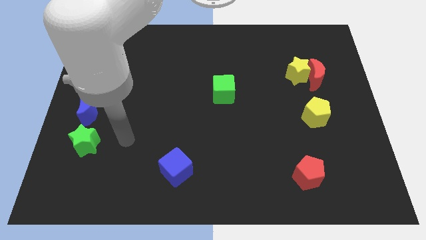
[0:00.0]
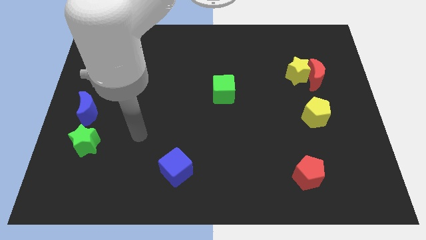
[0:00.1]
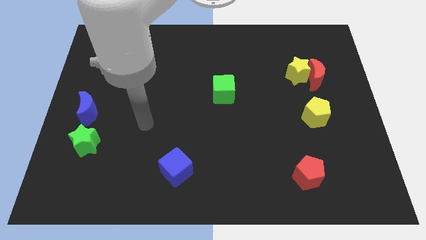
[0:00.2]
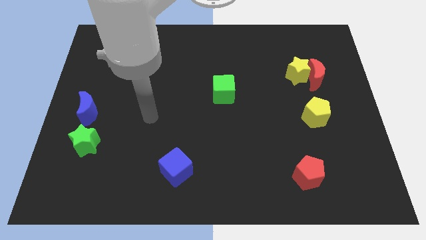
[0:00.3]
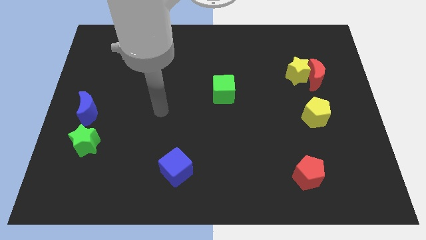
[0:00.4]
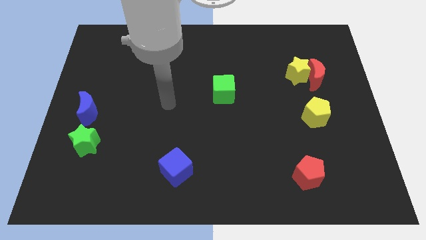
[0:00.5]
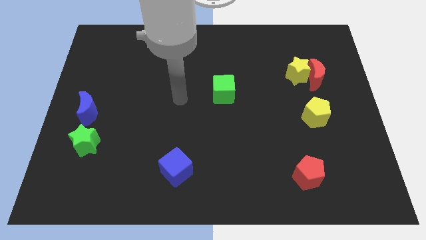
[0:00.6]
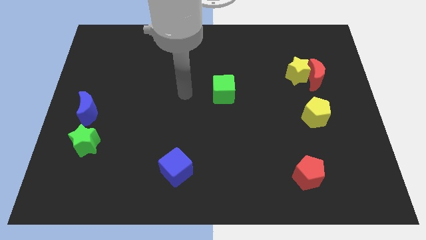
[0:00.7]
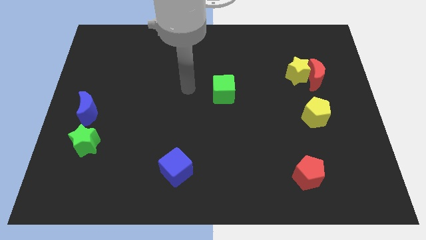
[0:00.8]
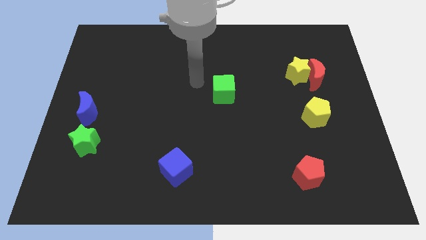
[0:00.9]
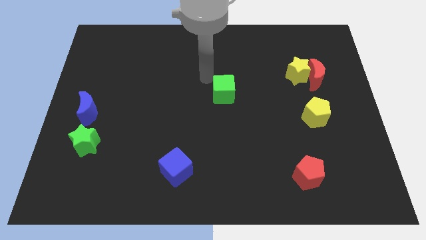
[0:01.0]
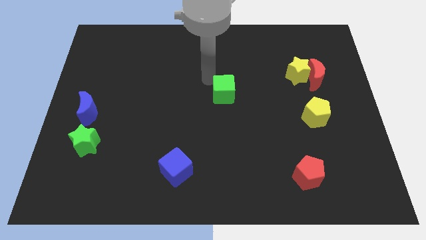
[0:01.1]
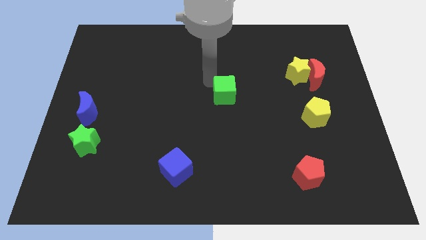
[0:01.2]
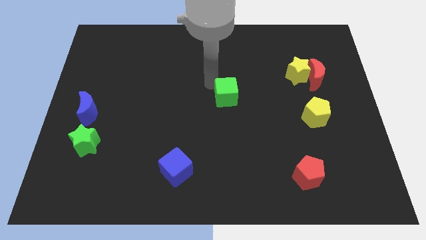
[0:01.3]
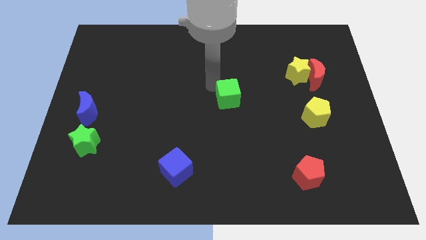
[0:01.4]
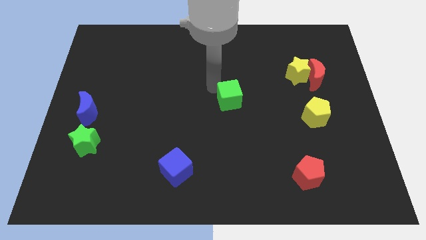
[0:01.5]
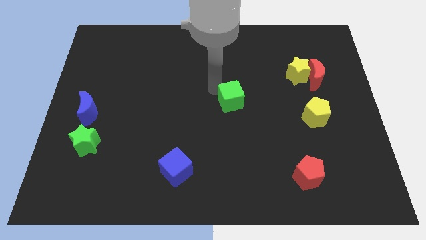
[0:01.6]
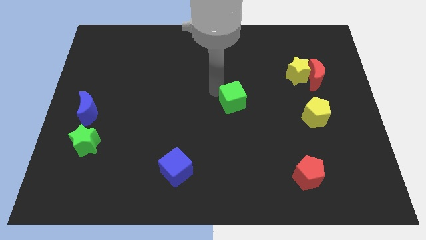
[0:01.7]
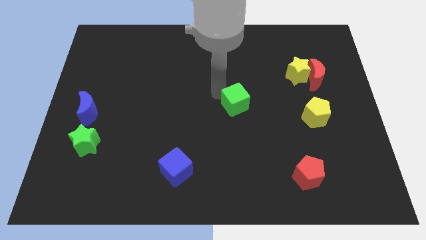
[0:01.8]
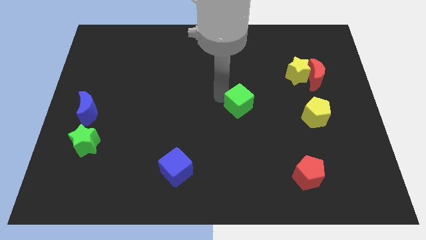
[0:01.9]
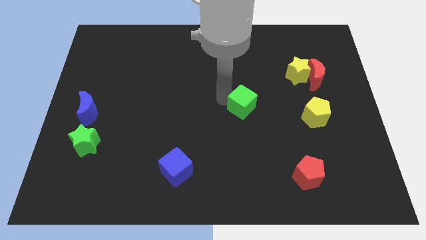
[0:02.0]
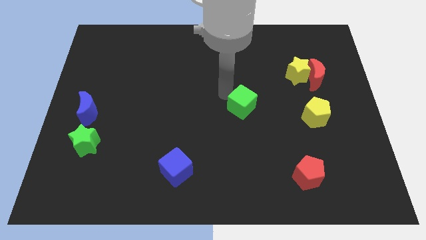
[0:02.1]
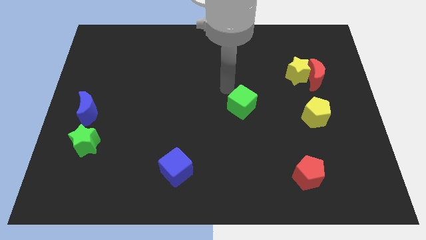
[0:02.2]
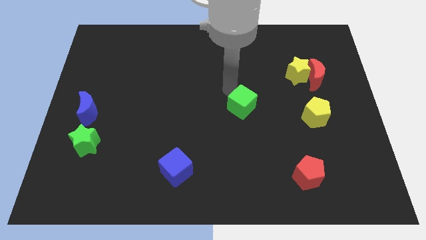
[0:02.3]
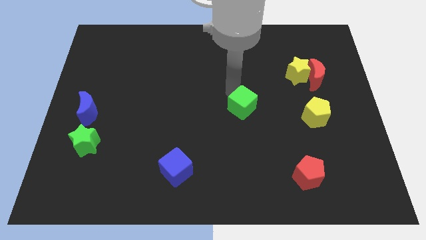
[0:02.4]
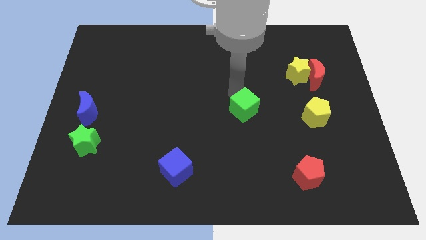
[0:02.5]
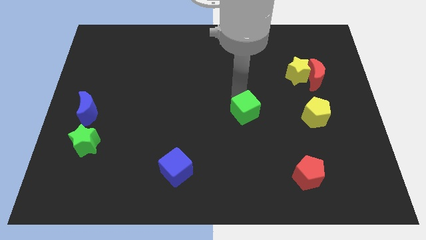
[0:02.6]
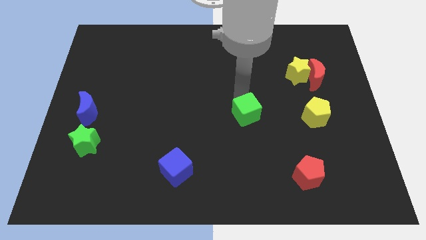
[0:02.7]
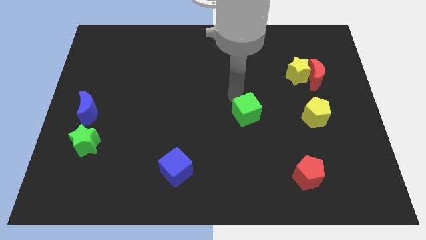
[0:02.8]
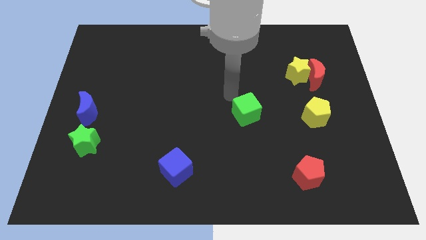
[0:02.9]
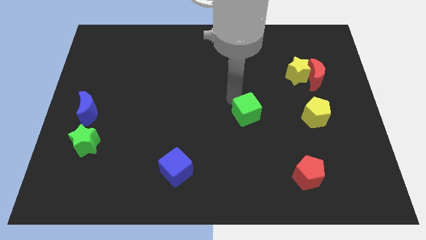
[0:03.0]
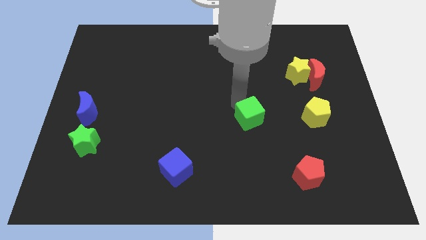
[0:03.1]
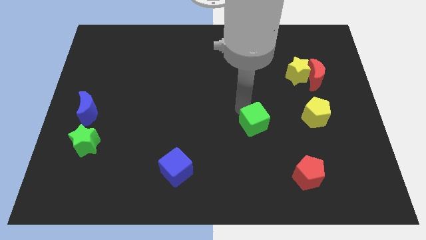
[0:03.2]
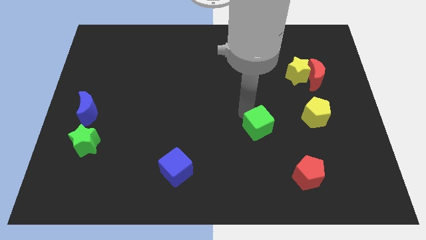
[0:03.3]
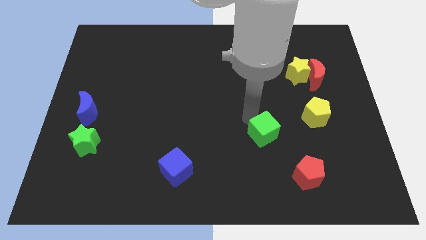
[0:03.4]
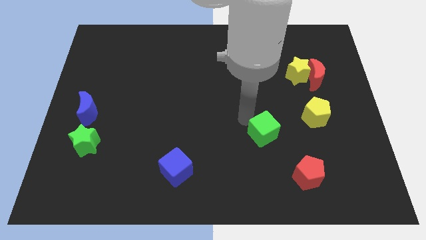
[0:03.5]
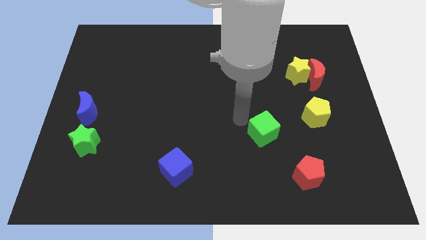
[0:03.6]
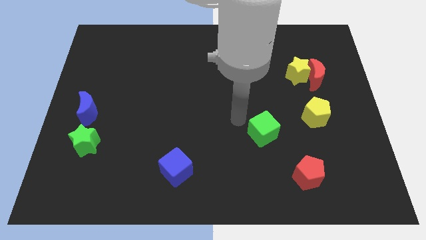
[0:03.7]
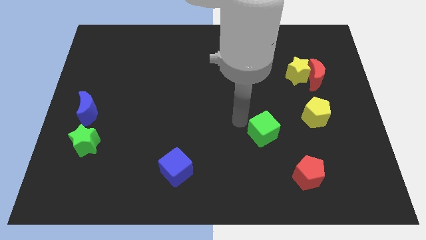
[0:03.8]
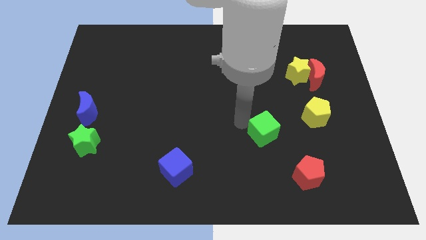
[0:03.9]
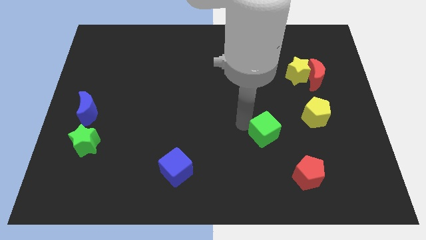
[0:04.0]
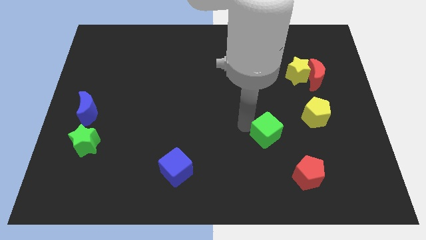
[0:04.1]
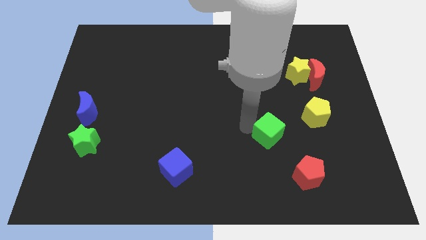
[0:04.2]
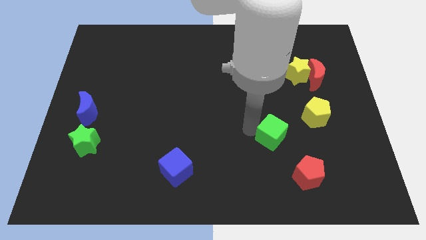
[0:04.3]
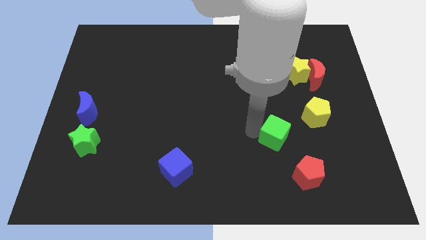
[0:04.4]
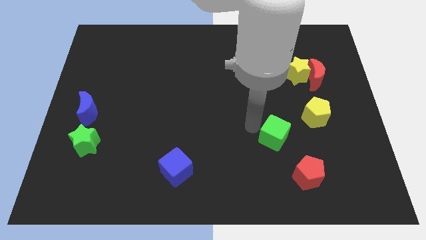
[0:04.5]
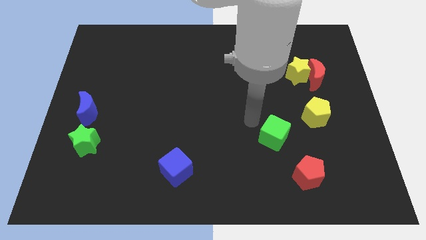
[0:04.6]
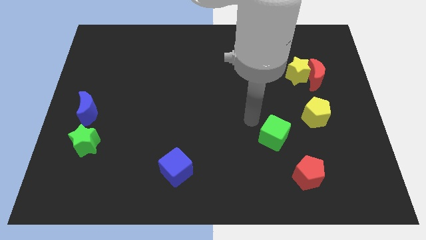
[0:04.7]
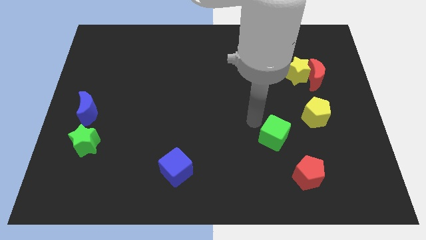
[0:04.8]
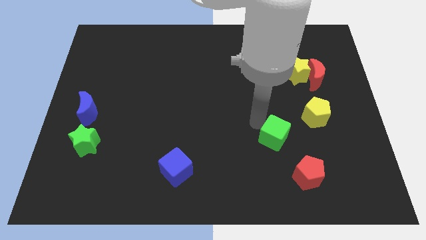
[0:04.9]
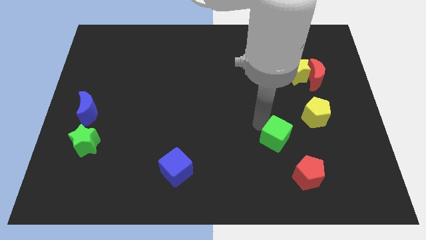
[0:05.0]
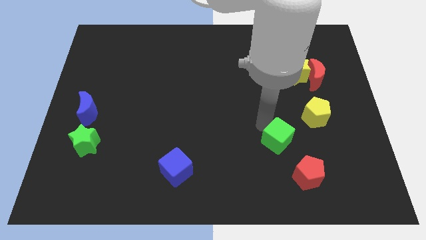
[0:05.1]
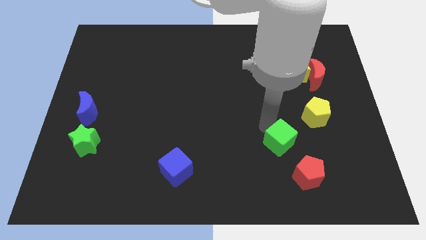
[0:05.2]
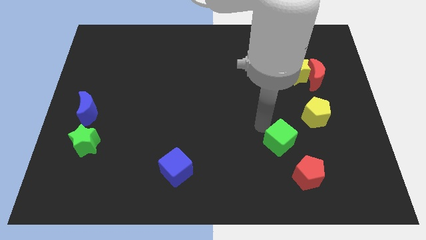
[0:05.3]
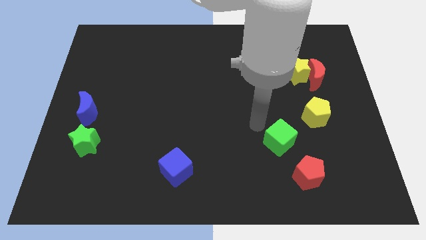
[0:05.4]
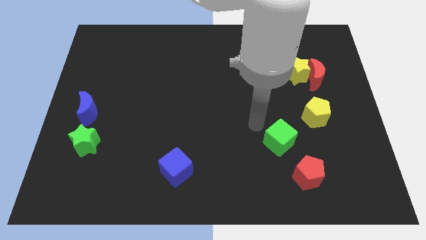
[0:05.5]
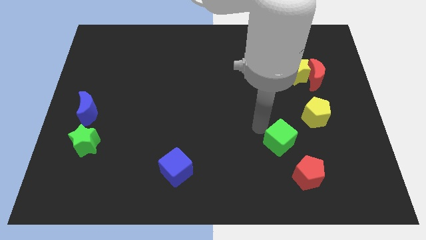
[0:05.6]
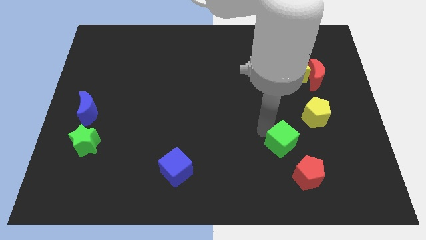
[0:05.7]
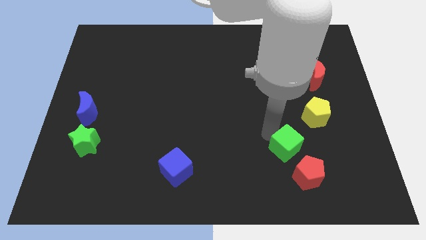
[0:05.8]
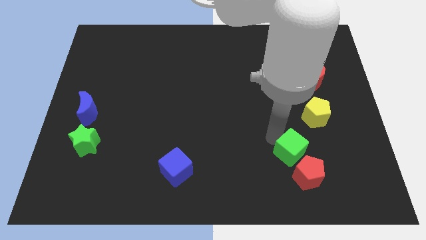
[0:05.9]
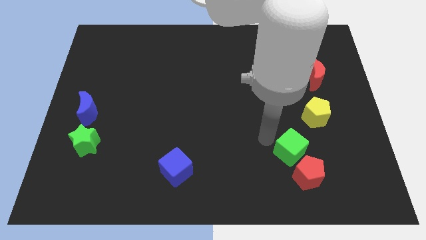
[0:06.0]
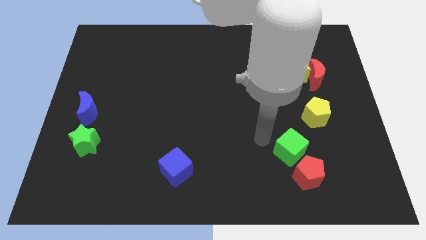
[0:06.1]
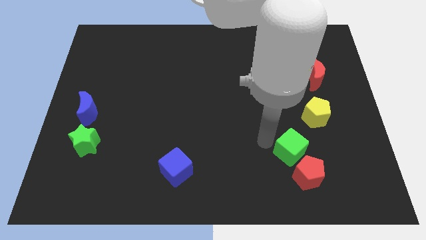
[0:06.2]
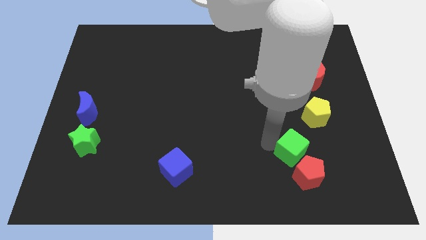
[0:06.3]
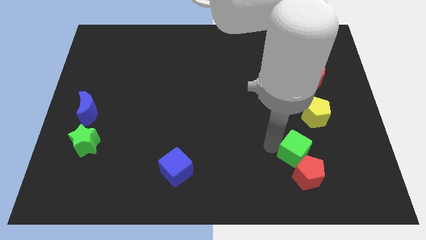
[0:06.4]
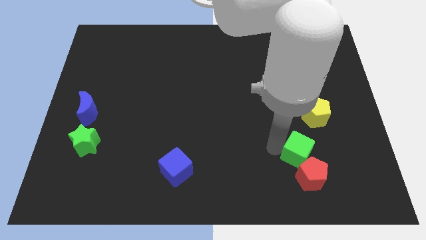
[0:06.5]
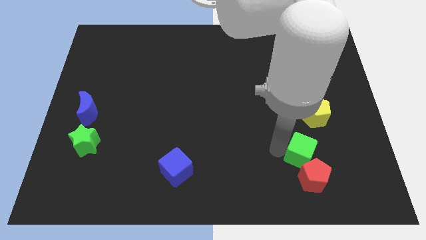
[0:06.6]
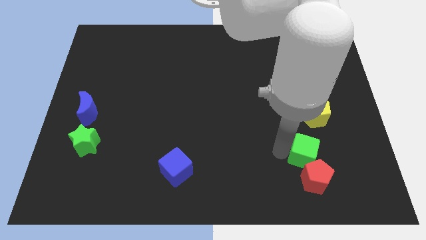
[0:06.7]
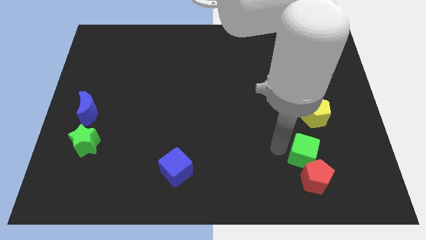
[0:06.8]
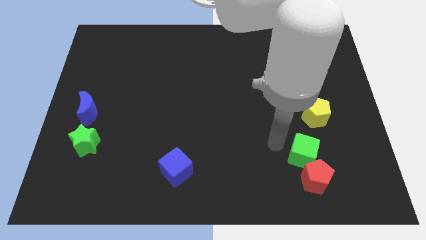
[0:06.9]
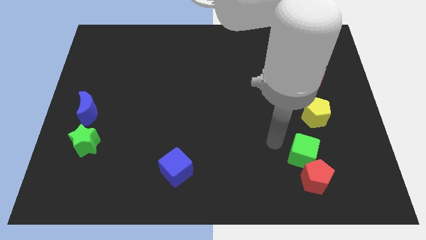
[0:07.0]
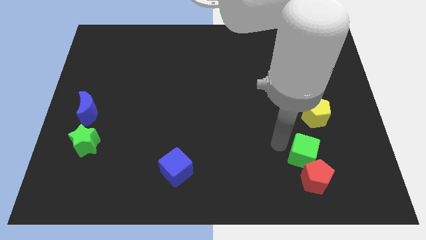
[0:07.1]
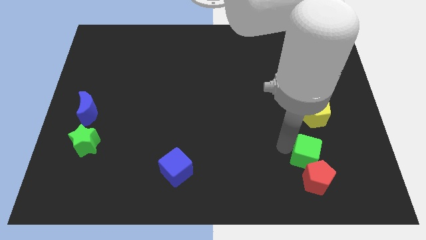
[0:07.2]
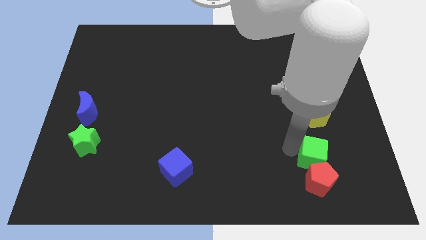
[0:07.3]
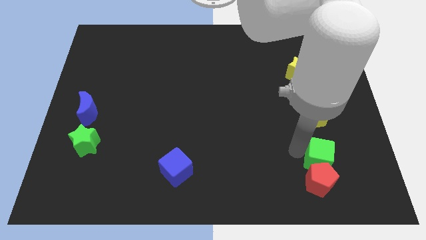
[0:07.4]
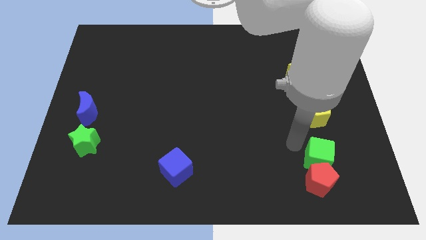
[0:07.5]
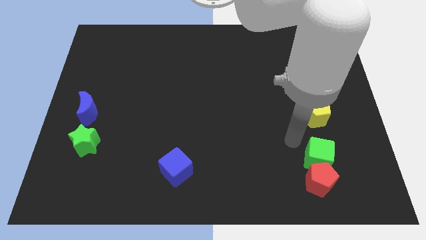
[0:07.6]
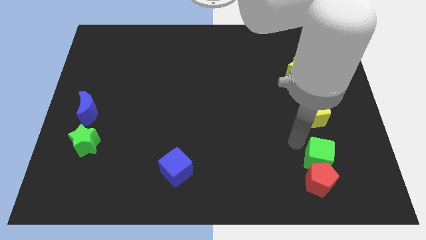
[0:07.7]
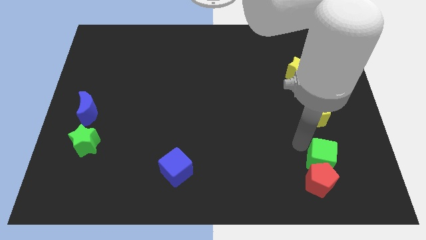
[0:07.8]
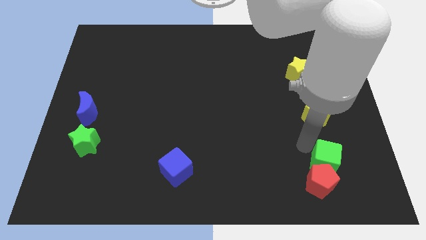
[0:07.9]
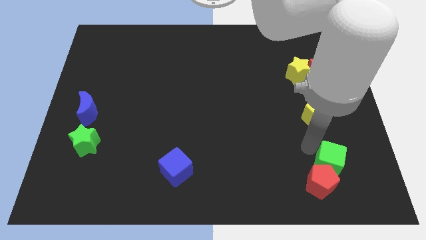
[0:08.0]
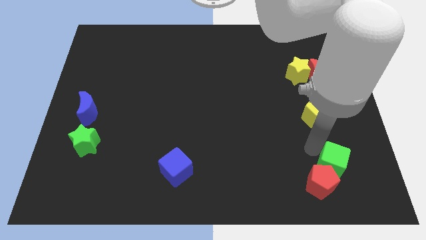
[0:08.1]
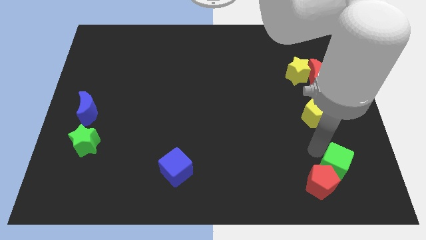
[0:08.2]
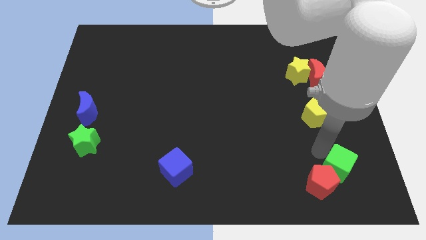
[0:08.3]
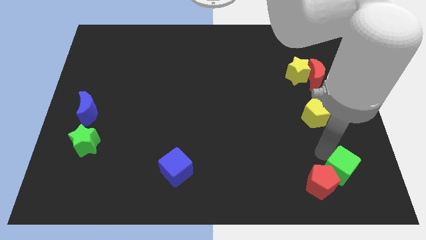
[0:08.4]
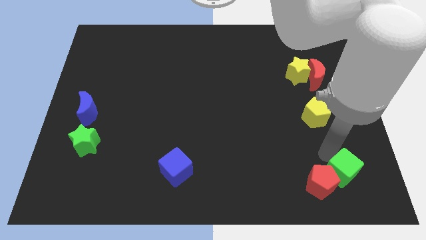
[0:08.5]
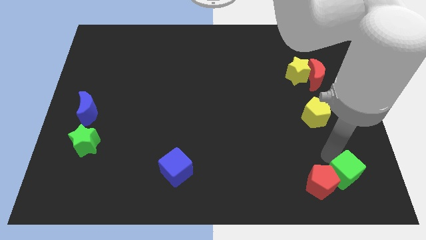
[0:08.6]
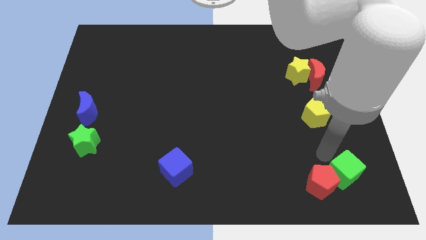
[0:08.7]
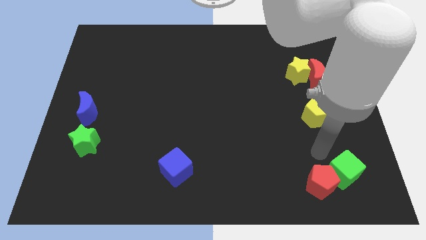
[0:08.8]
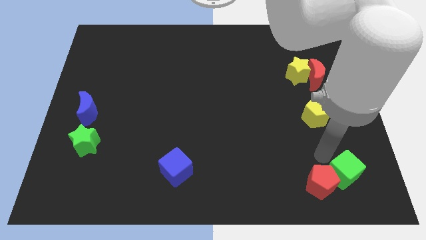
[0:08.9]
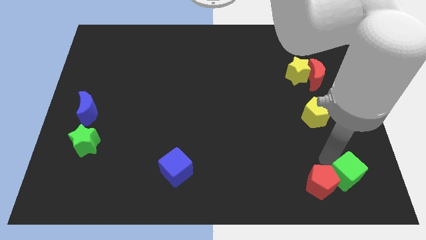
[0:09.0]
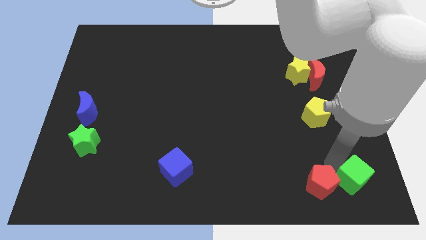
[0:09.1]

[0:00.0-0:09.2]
push the green cube to the lower right corner
